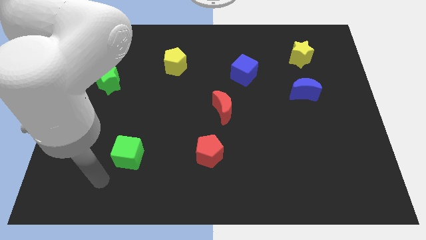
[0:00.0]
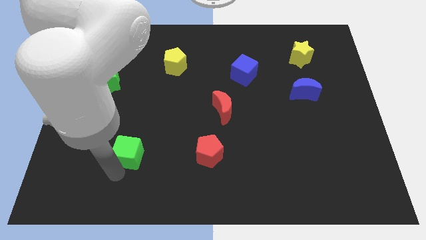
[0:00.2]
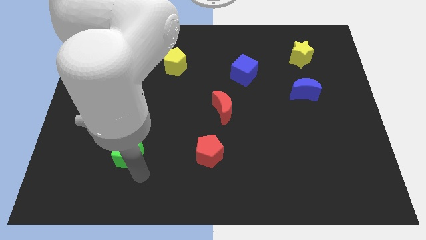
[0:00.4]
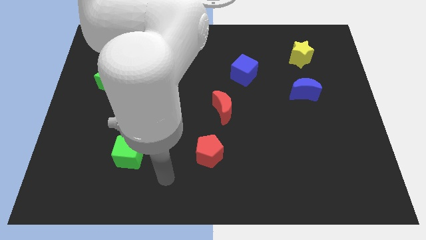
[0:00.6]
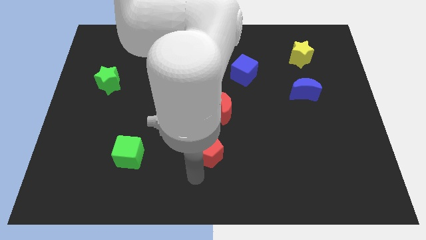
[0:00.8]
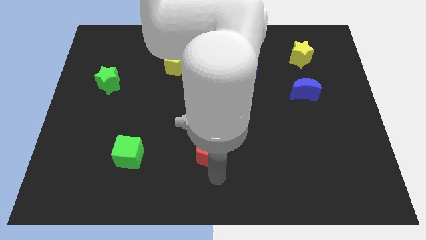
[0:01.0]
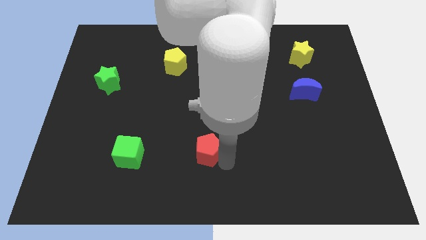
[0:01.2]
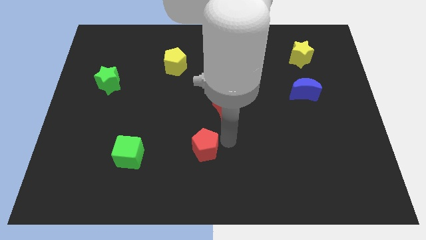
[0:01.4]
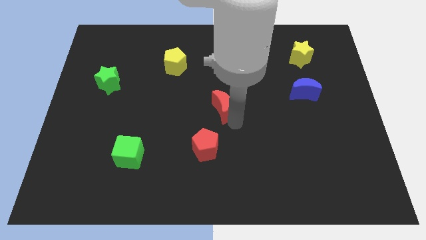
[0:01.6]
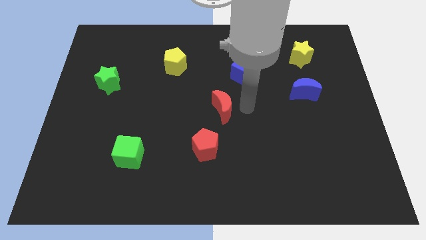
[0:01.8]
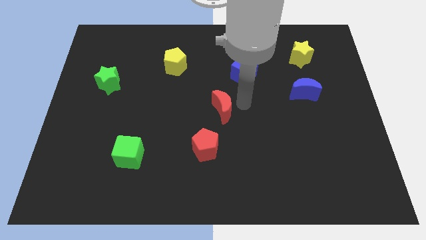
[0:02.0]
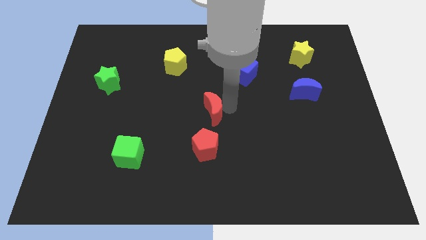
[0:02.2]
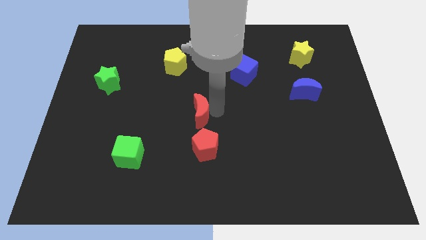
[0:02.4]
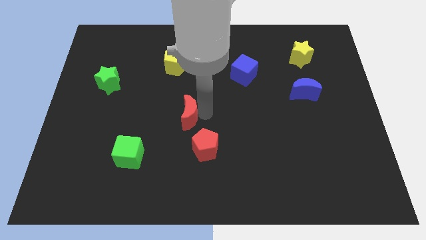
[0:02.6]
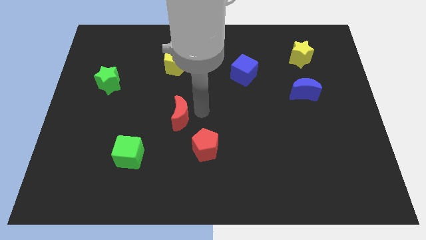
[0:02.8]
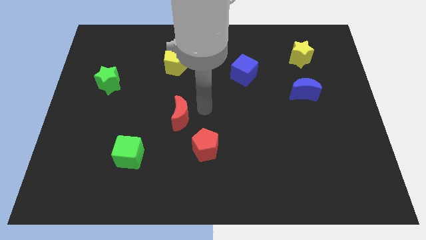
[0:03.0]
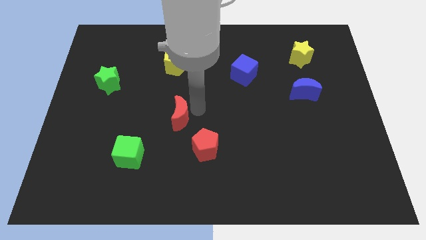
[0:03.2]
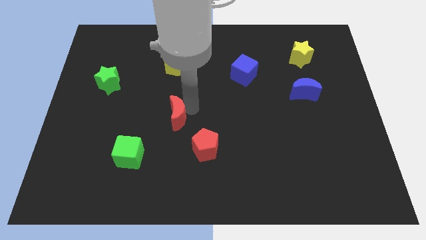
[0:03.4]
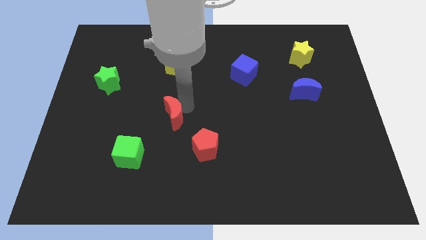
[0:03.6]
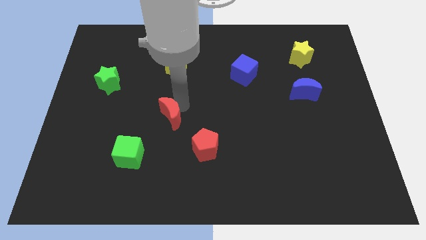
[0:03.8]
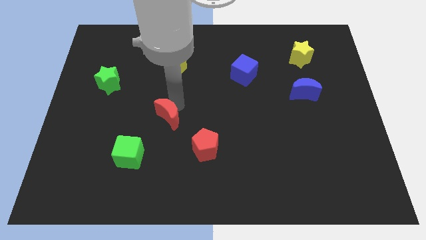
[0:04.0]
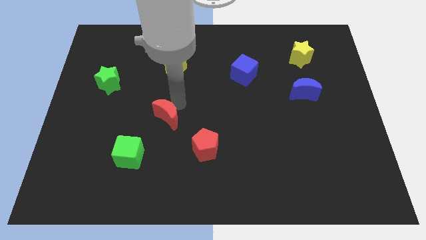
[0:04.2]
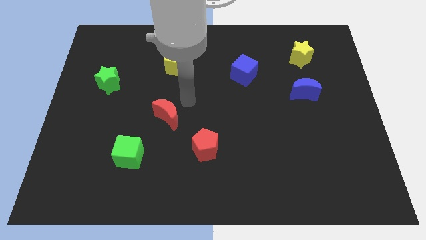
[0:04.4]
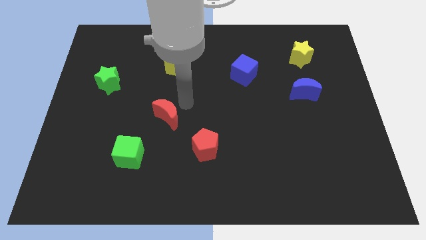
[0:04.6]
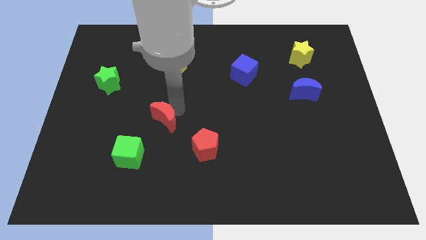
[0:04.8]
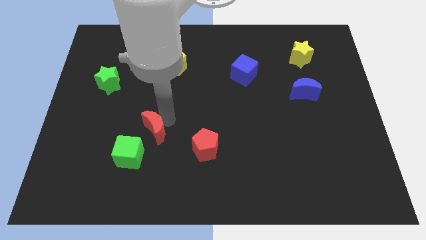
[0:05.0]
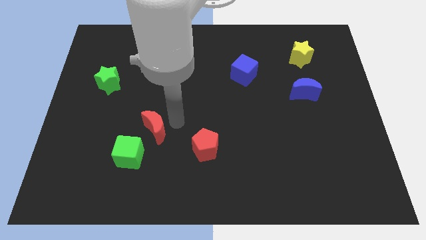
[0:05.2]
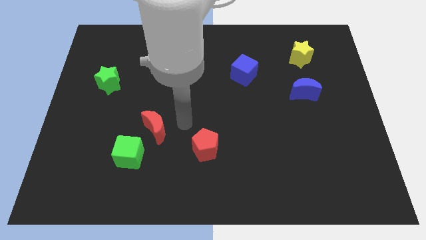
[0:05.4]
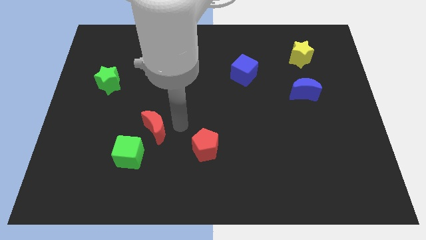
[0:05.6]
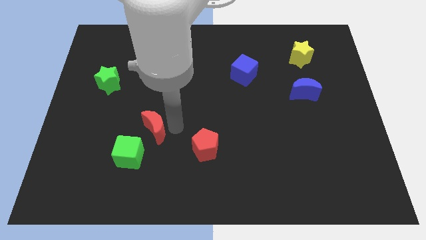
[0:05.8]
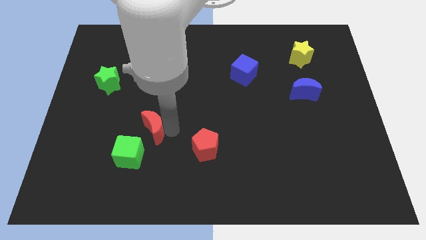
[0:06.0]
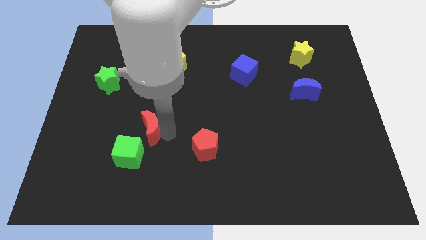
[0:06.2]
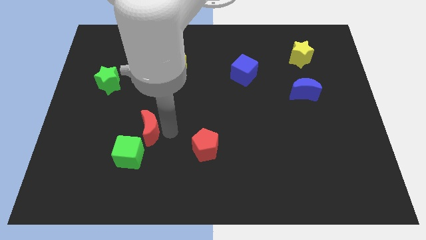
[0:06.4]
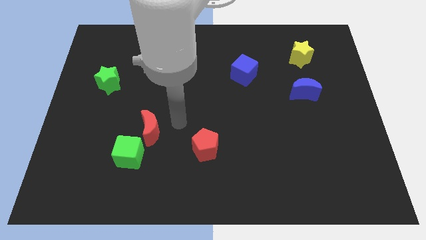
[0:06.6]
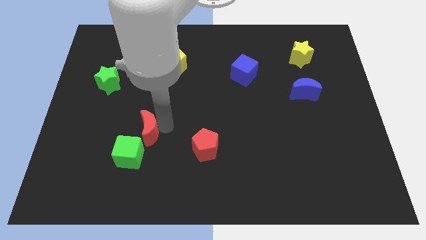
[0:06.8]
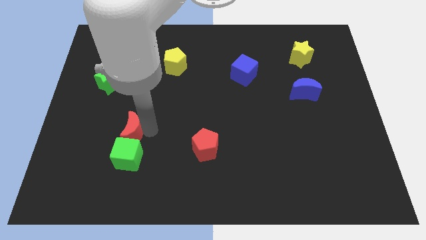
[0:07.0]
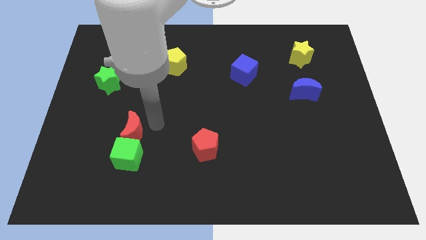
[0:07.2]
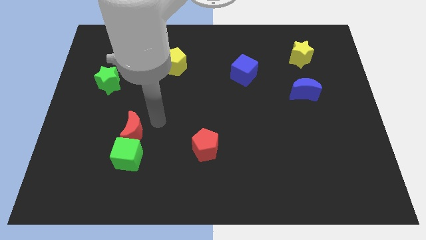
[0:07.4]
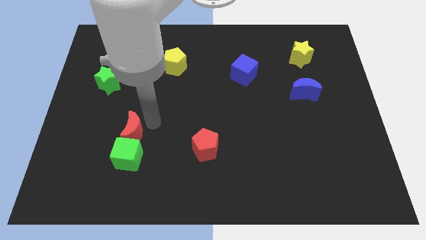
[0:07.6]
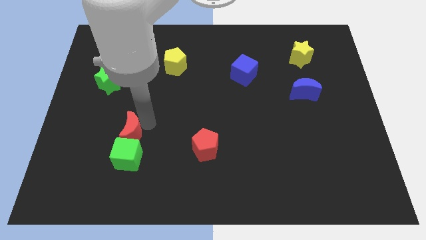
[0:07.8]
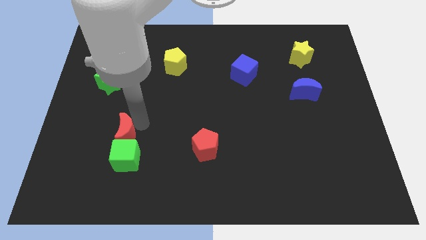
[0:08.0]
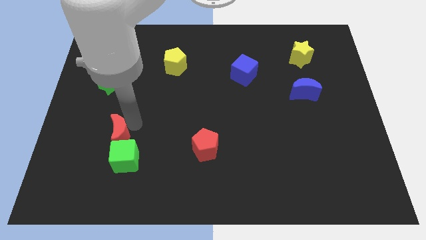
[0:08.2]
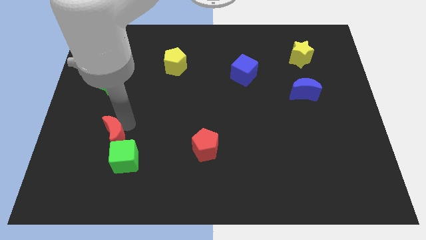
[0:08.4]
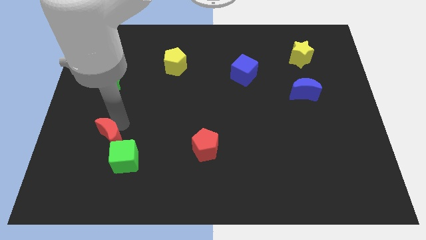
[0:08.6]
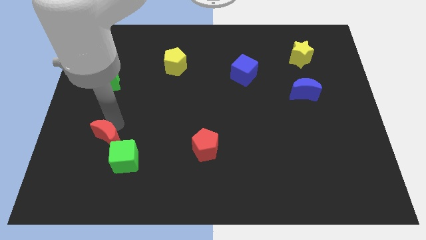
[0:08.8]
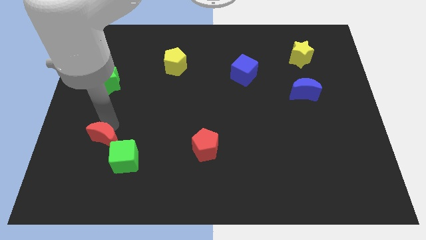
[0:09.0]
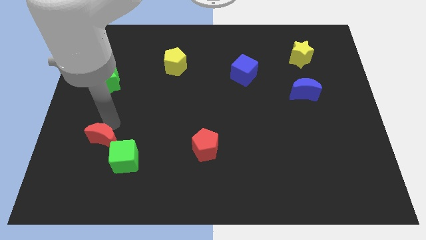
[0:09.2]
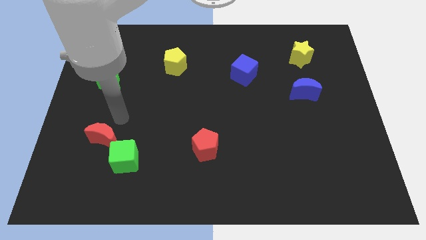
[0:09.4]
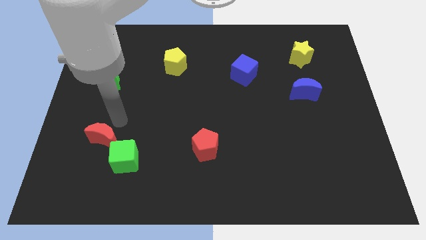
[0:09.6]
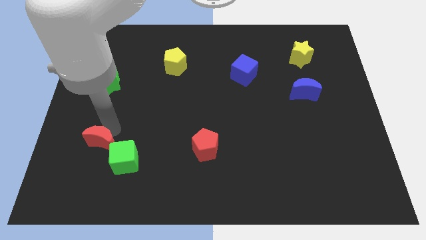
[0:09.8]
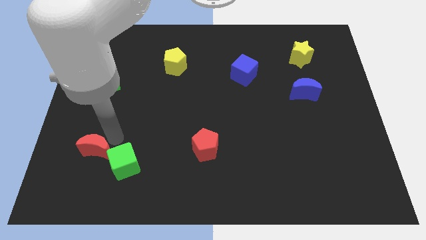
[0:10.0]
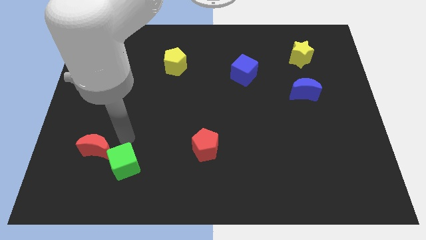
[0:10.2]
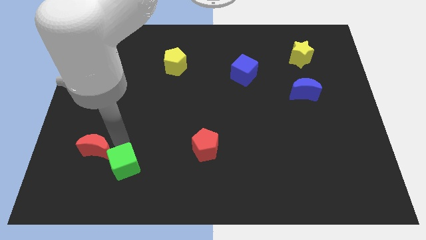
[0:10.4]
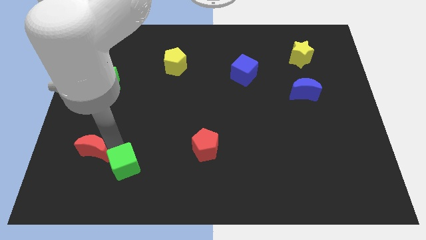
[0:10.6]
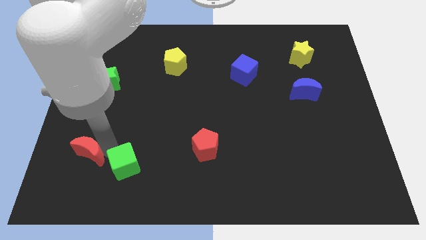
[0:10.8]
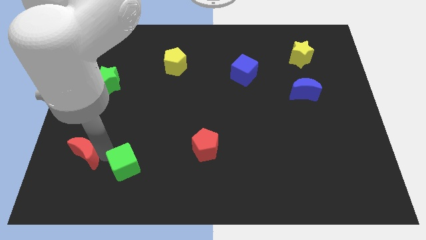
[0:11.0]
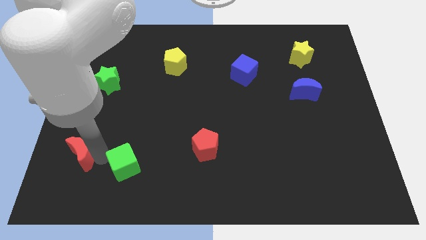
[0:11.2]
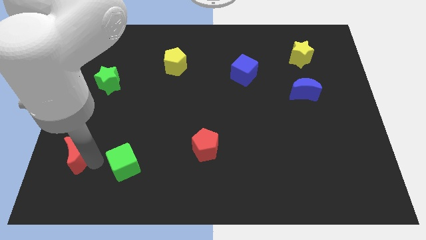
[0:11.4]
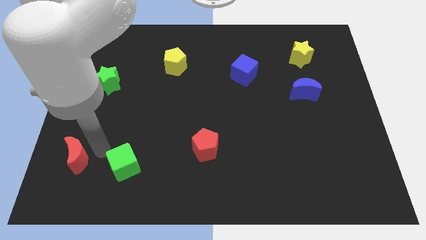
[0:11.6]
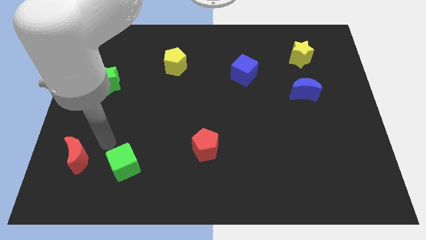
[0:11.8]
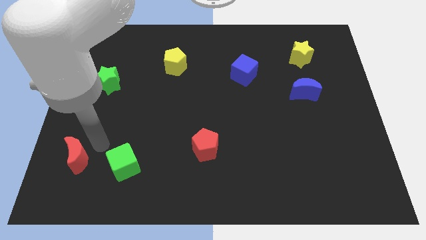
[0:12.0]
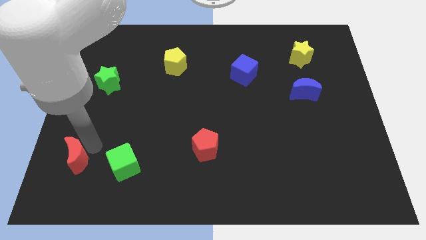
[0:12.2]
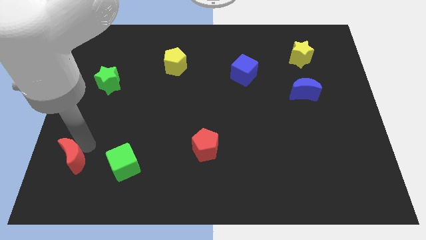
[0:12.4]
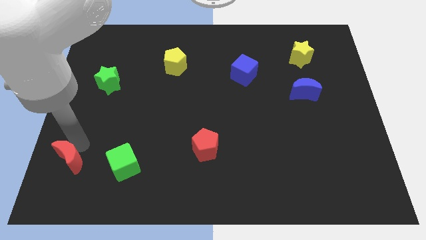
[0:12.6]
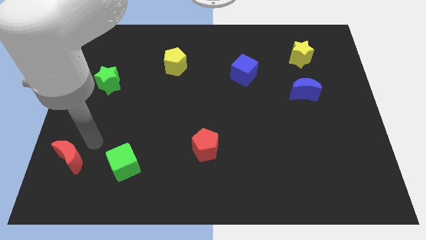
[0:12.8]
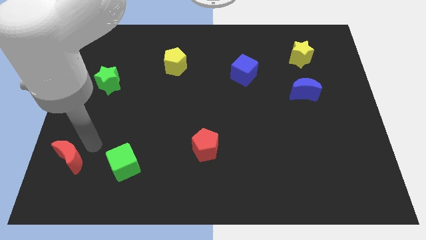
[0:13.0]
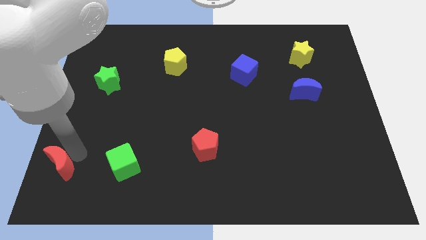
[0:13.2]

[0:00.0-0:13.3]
push the red moon to the bottom left corner

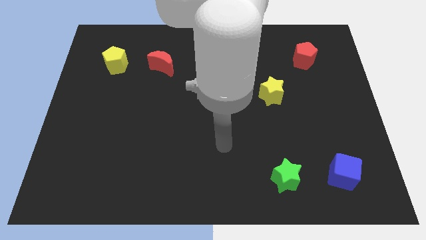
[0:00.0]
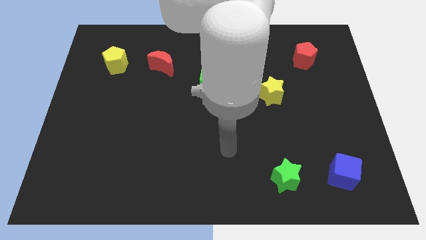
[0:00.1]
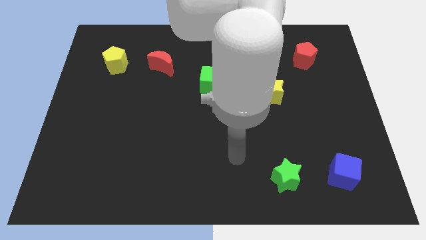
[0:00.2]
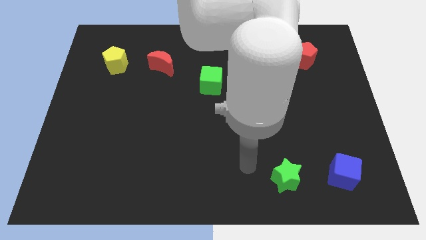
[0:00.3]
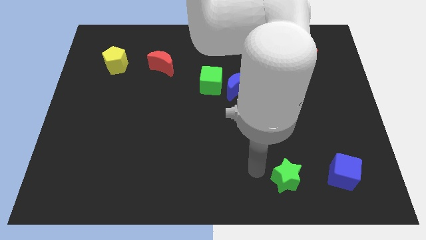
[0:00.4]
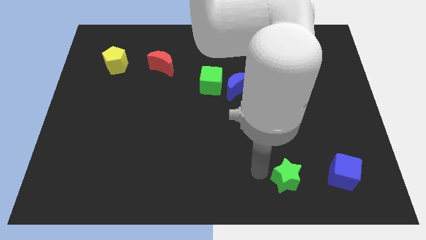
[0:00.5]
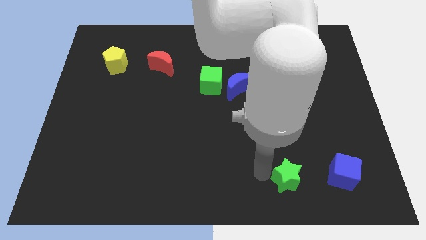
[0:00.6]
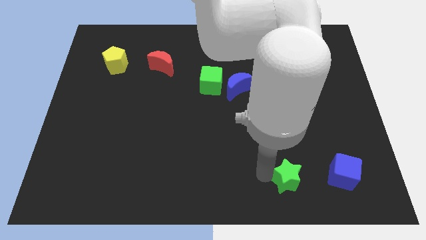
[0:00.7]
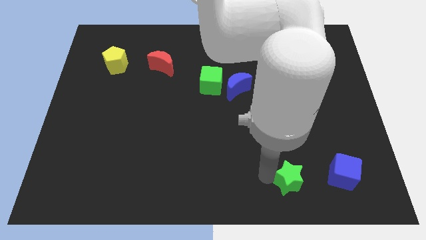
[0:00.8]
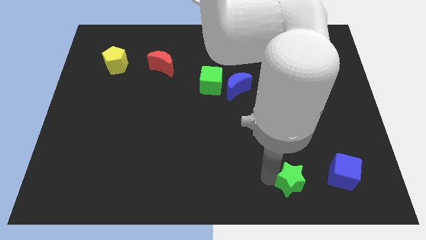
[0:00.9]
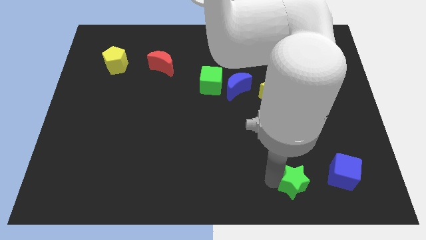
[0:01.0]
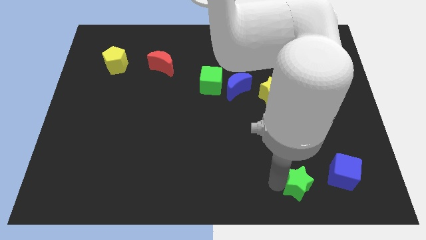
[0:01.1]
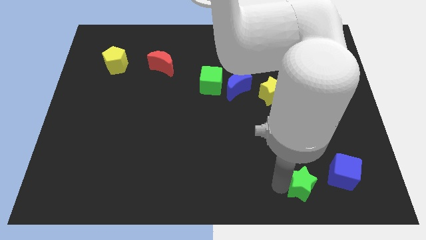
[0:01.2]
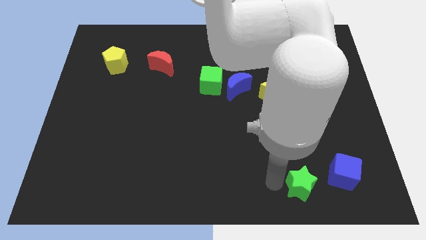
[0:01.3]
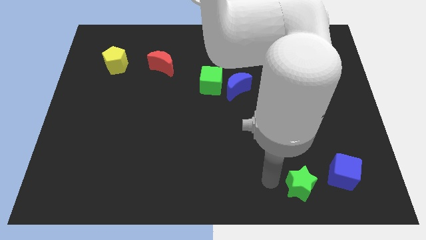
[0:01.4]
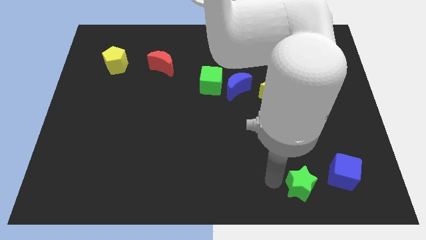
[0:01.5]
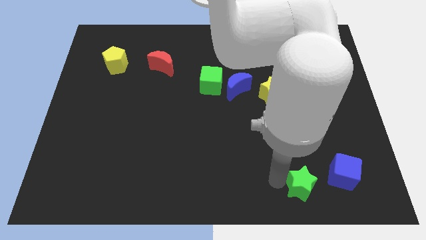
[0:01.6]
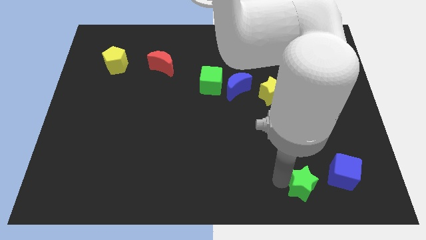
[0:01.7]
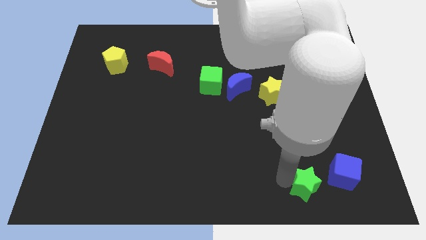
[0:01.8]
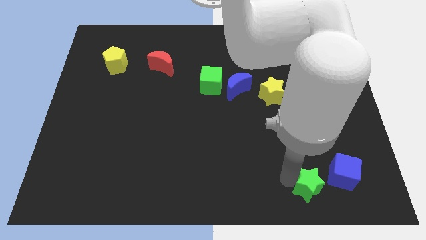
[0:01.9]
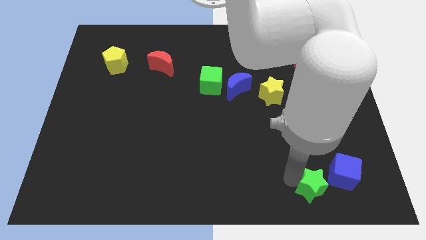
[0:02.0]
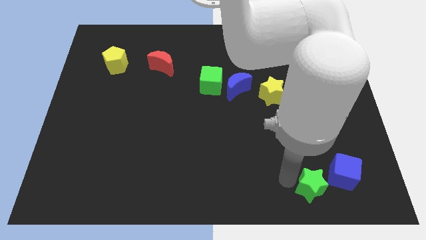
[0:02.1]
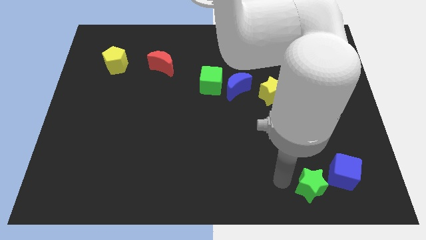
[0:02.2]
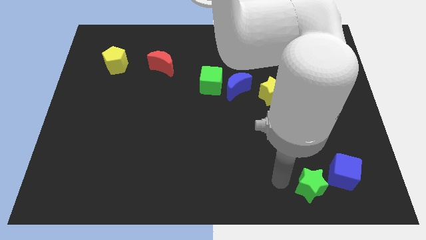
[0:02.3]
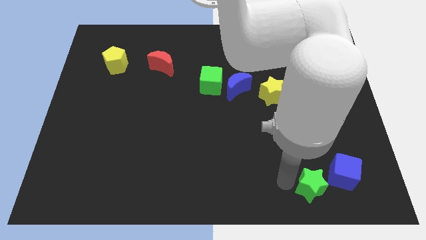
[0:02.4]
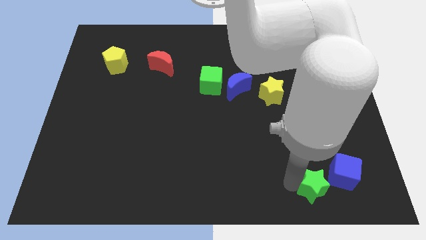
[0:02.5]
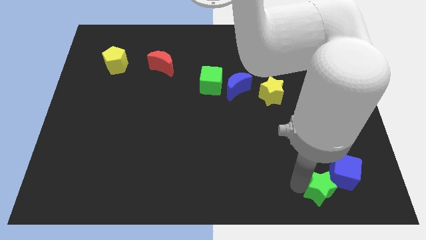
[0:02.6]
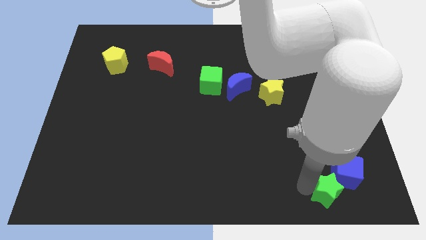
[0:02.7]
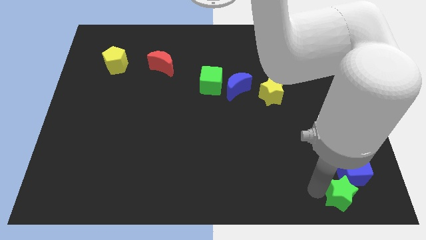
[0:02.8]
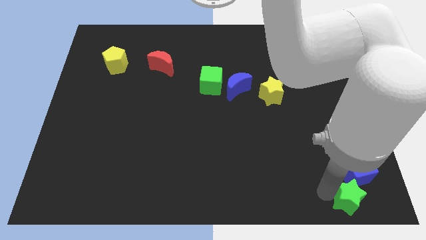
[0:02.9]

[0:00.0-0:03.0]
slide the green star to the lower right corner
